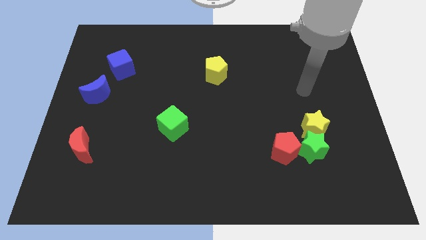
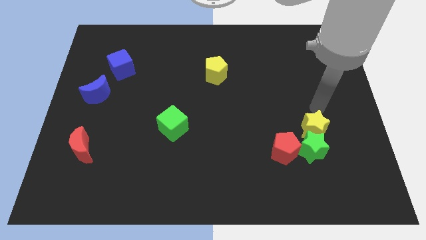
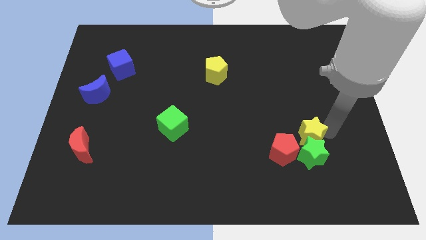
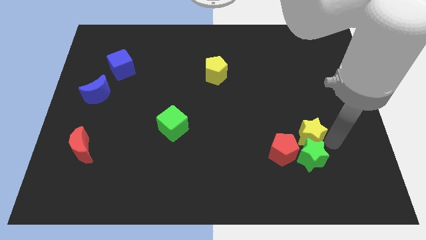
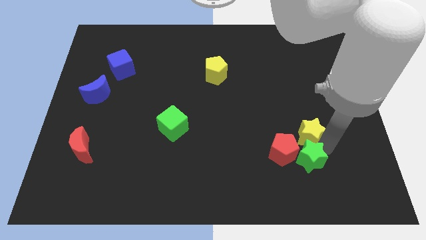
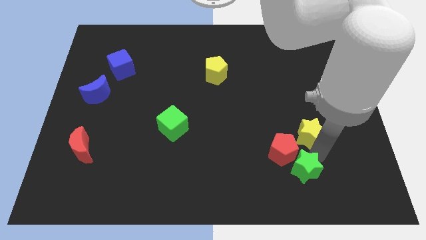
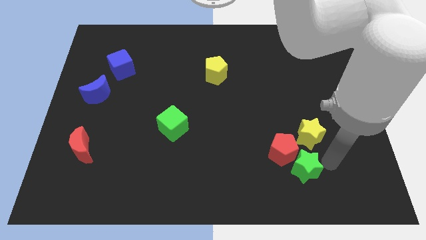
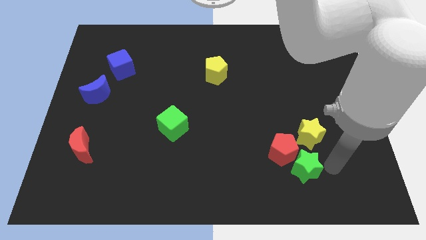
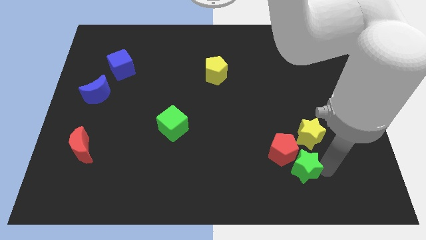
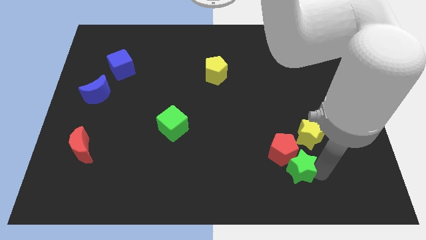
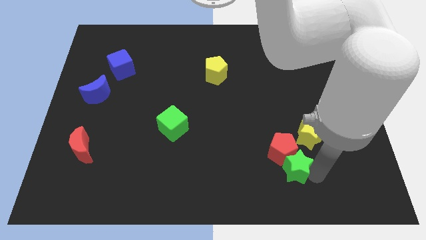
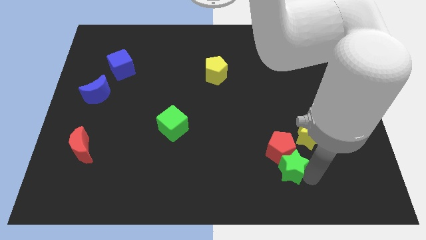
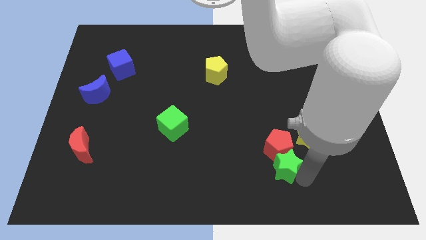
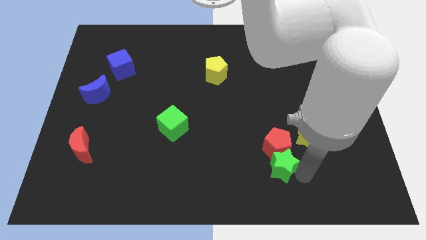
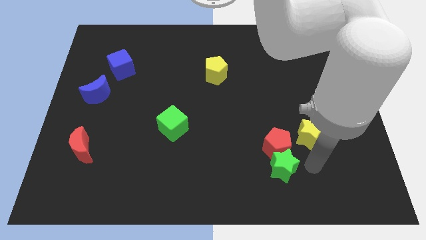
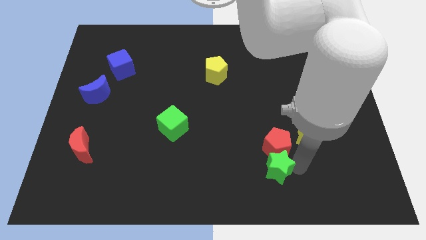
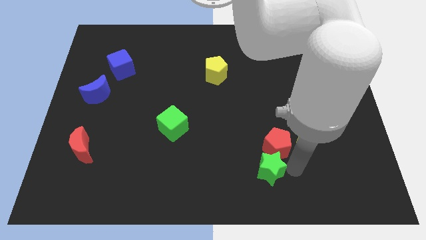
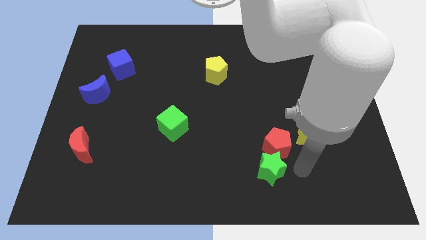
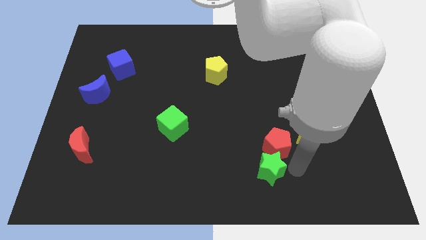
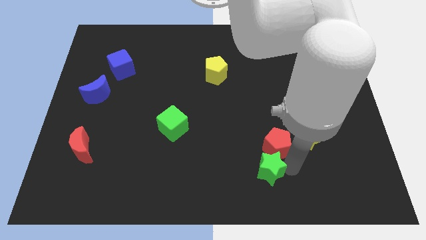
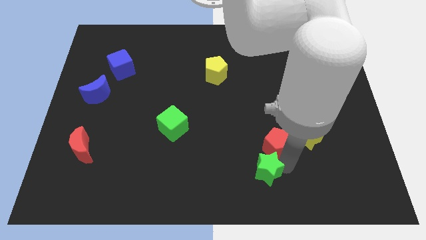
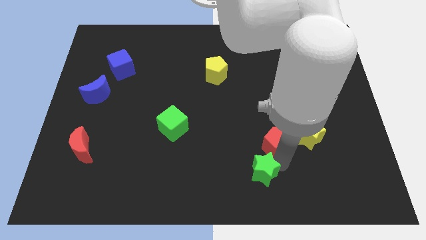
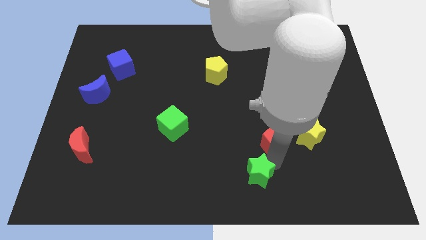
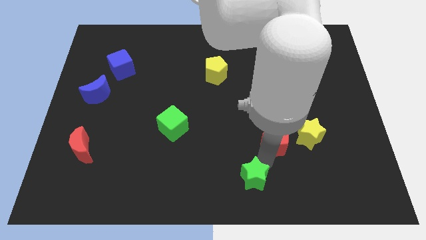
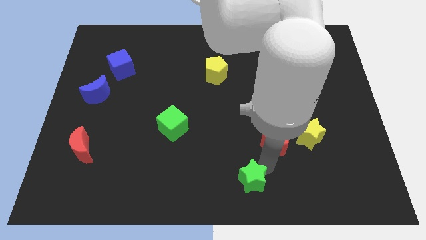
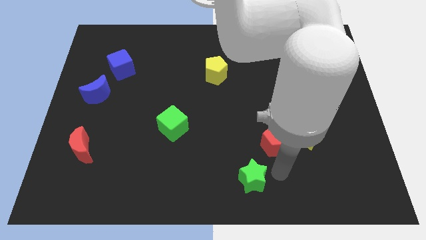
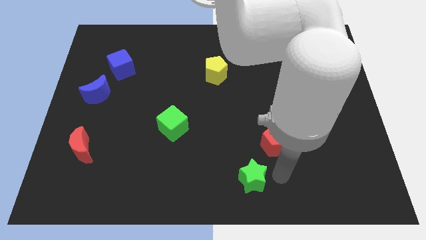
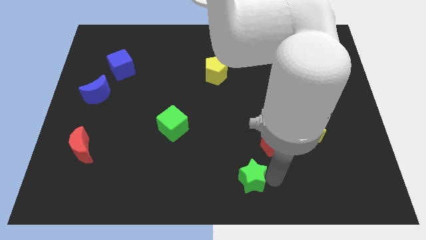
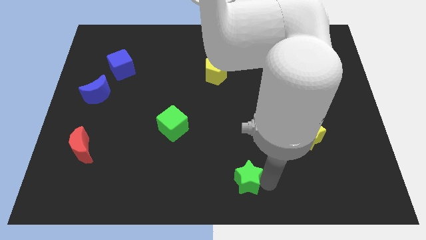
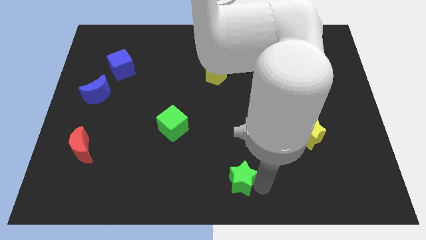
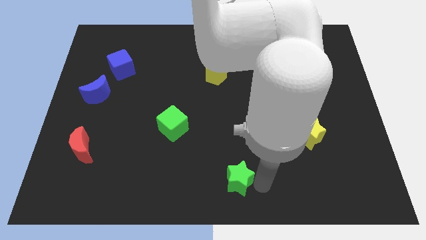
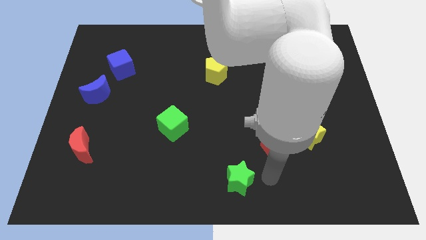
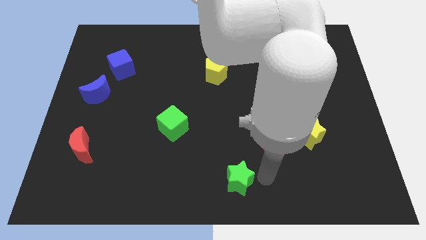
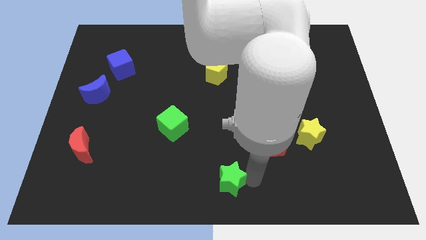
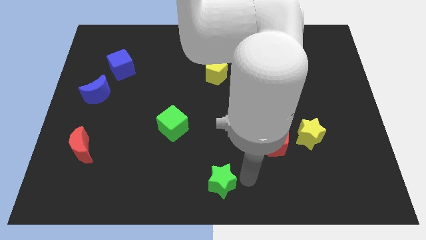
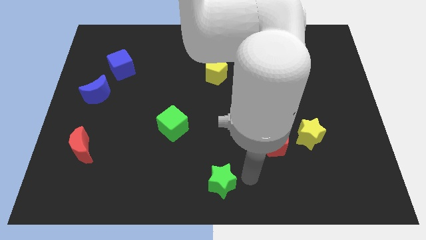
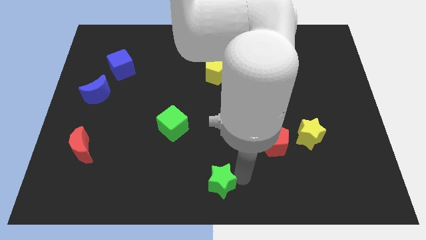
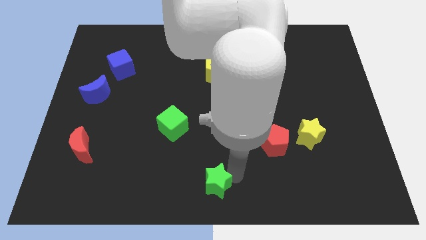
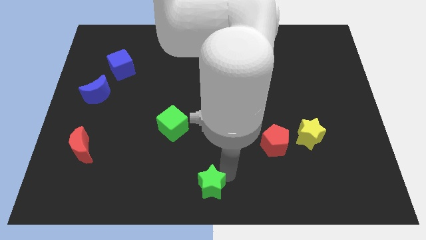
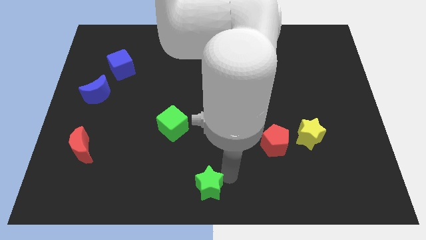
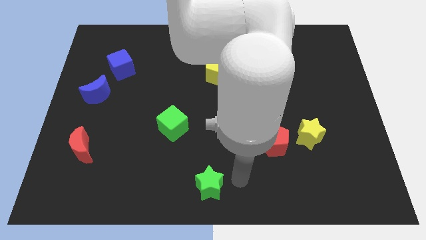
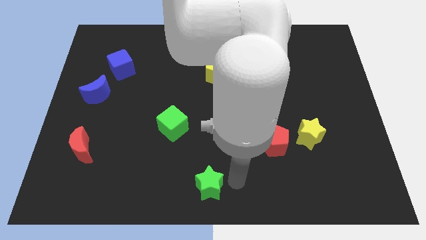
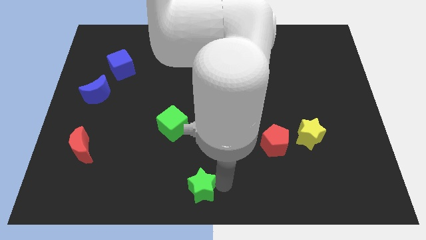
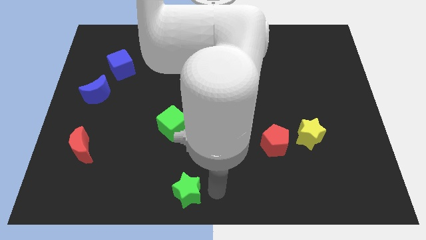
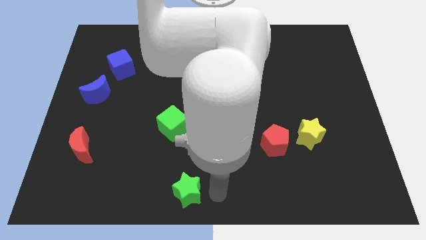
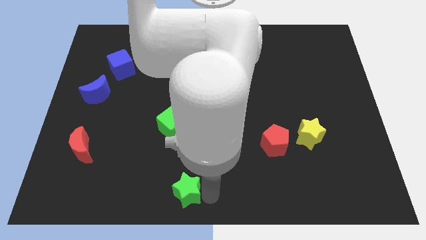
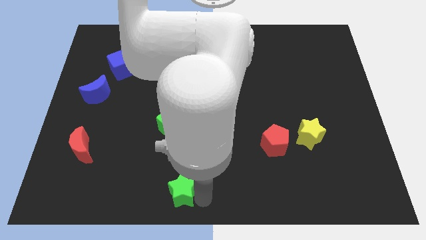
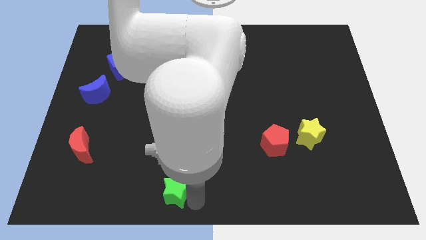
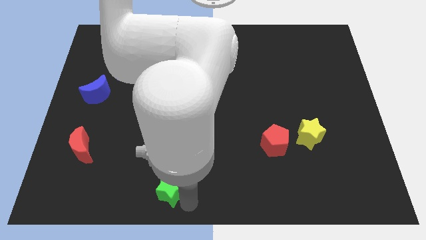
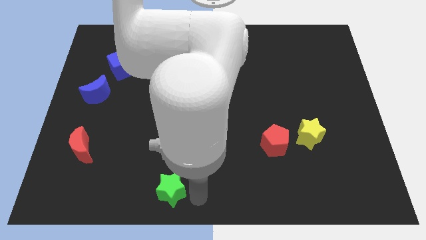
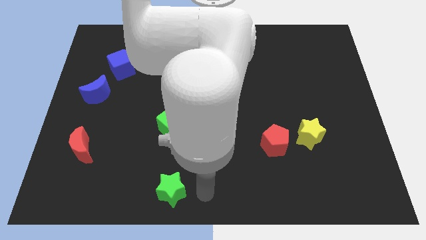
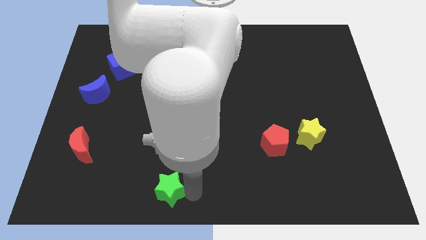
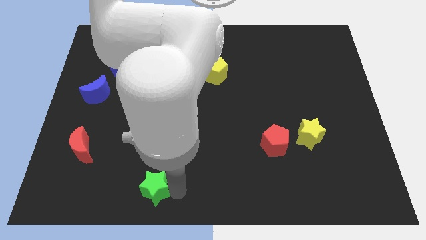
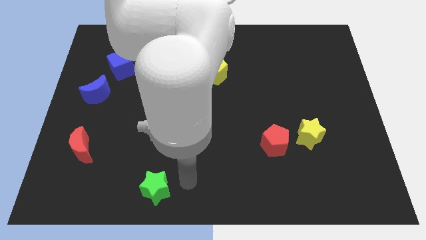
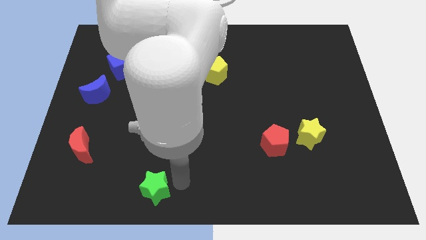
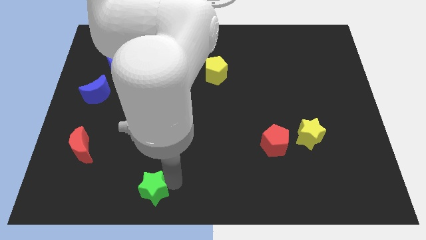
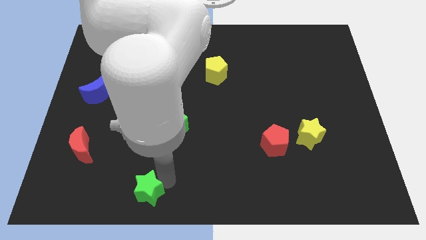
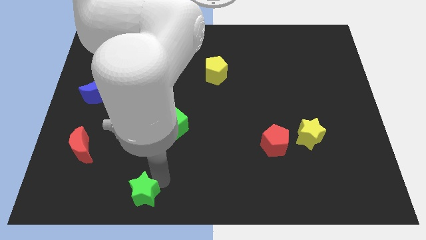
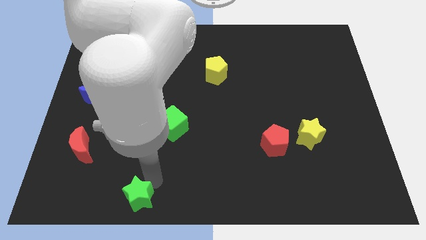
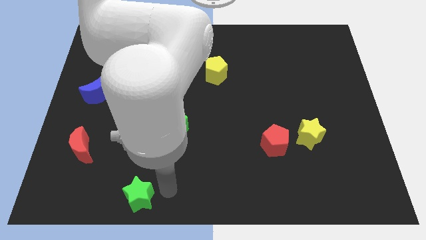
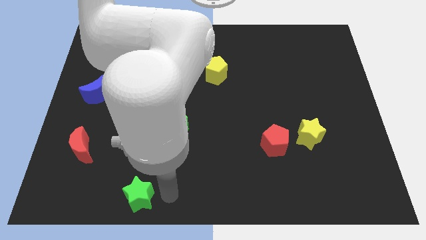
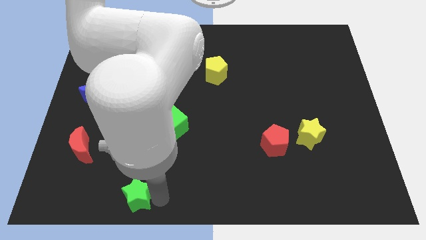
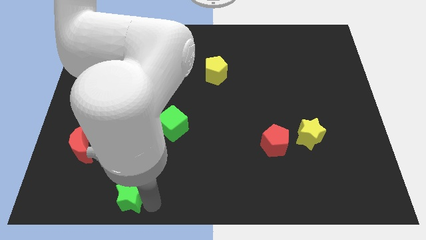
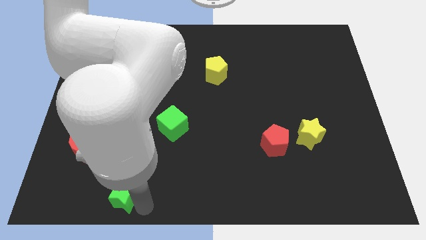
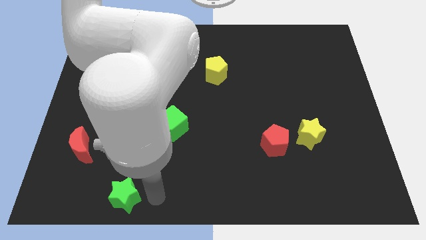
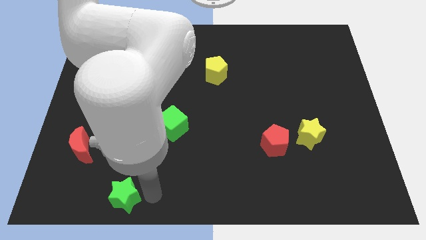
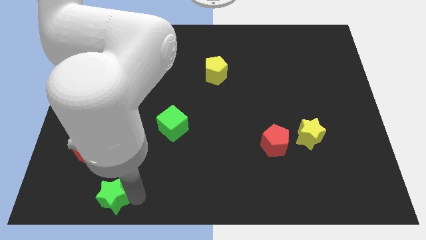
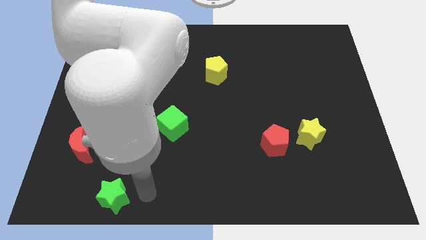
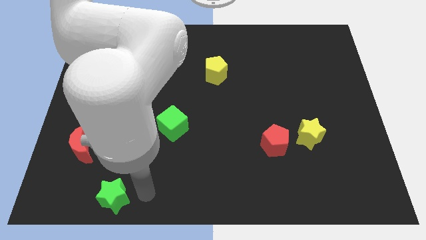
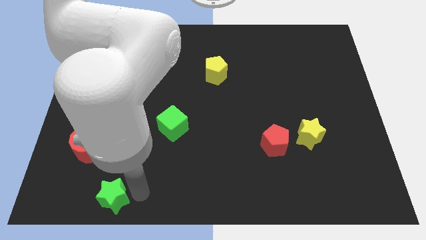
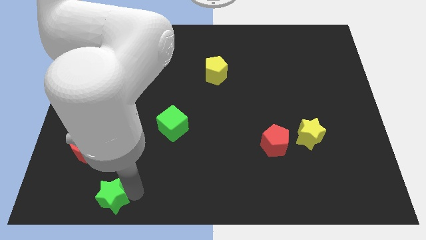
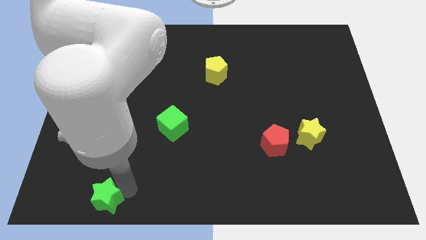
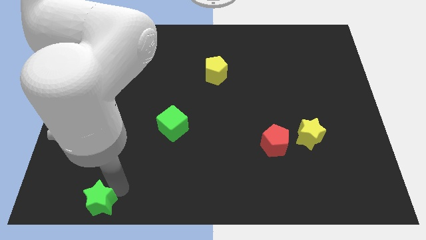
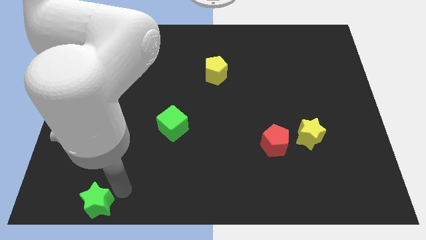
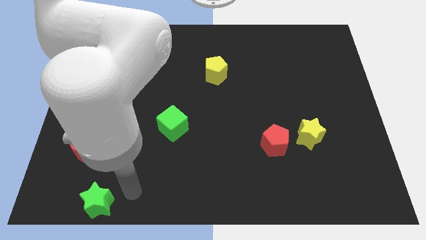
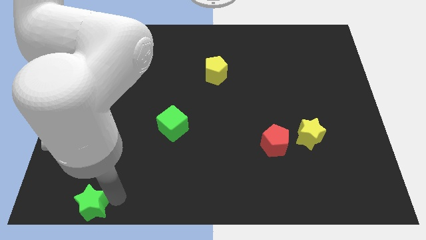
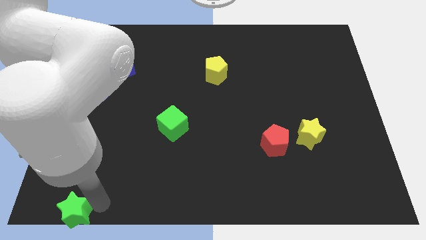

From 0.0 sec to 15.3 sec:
push the green star to the lower left corner
